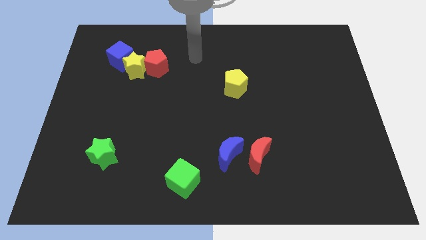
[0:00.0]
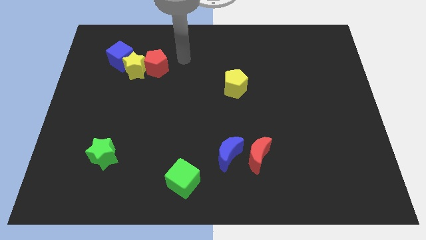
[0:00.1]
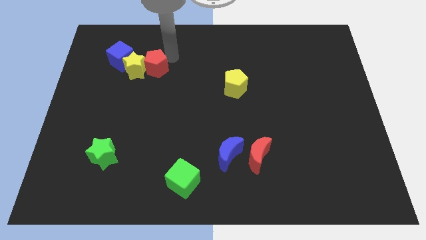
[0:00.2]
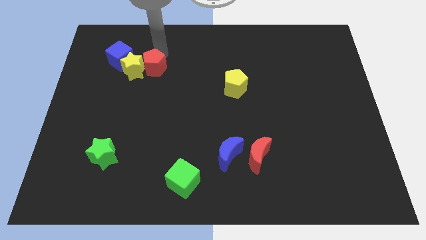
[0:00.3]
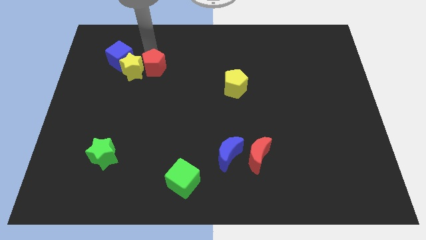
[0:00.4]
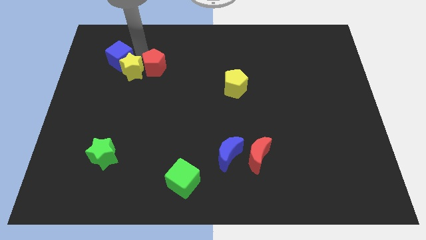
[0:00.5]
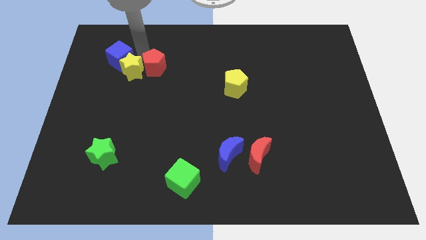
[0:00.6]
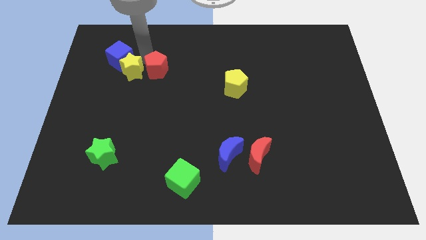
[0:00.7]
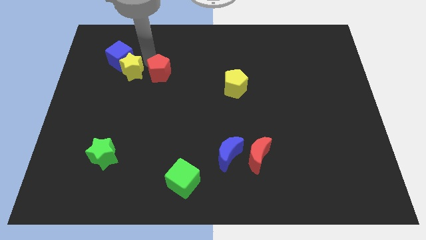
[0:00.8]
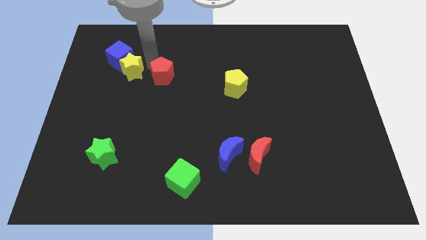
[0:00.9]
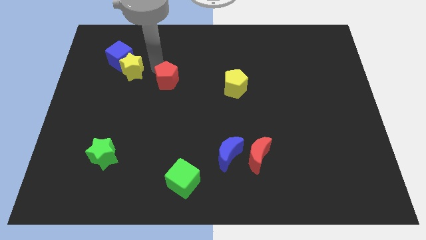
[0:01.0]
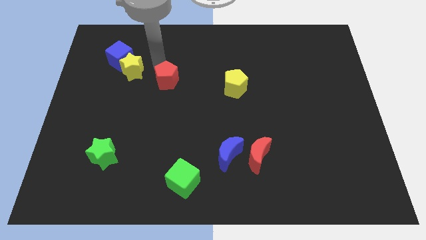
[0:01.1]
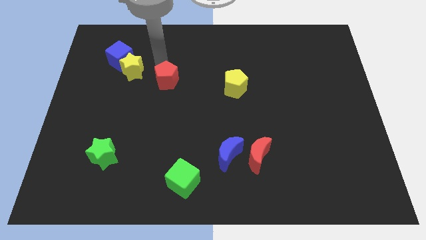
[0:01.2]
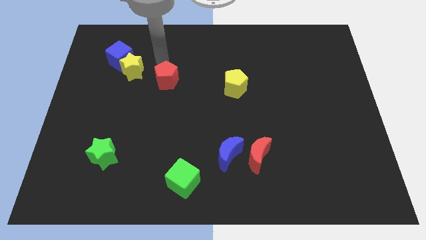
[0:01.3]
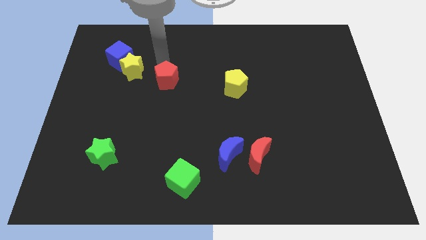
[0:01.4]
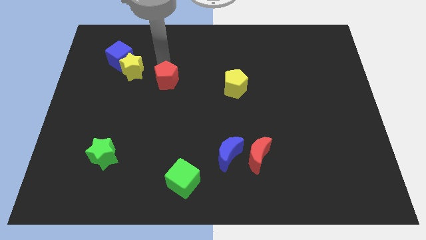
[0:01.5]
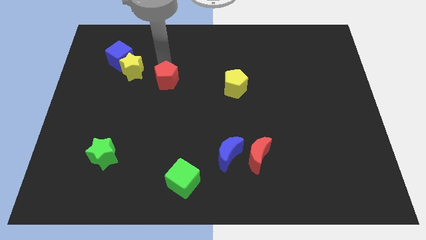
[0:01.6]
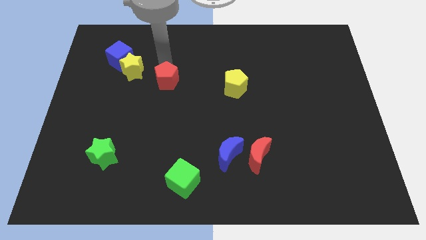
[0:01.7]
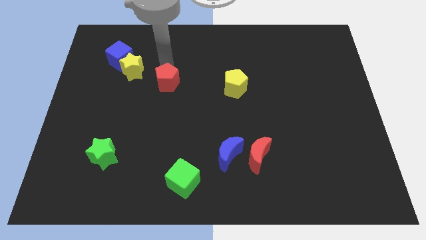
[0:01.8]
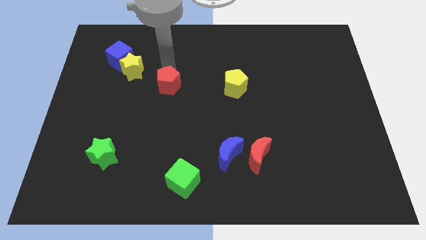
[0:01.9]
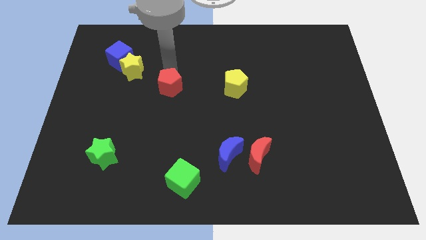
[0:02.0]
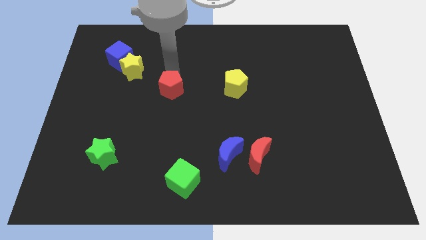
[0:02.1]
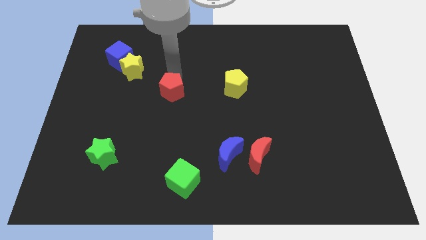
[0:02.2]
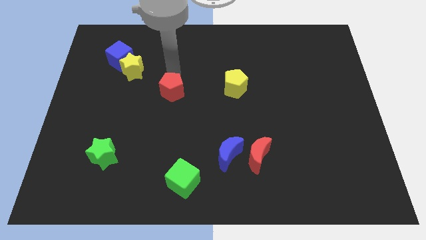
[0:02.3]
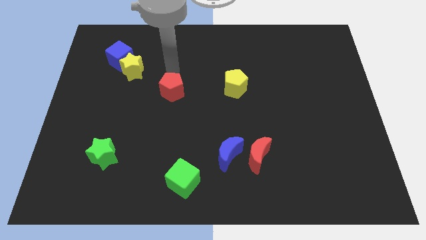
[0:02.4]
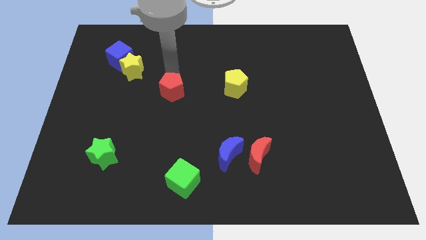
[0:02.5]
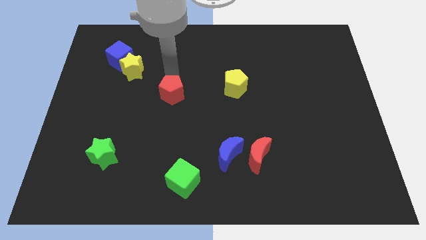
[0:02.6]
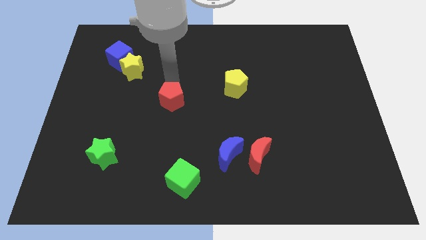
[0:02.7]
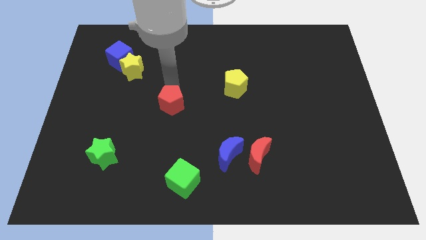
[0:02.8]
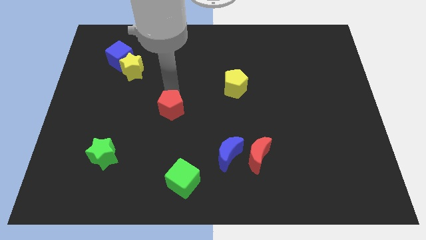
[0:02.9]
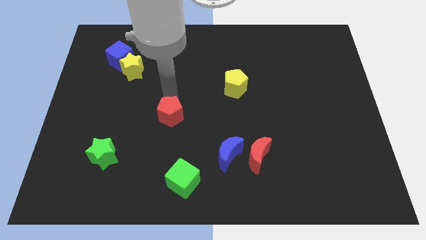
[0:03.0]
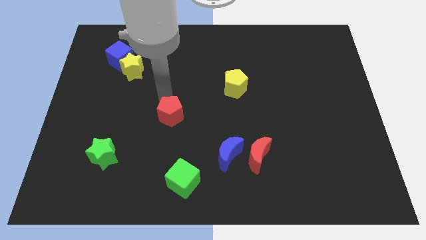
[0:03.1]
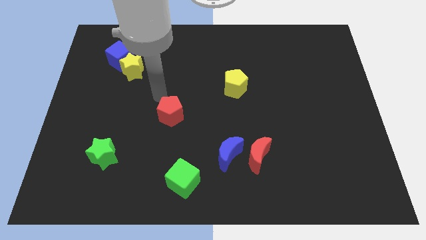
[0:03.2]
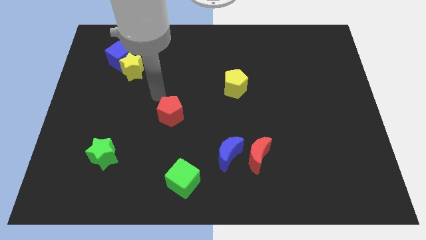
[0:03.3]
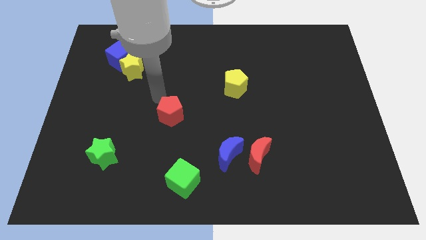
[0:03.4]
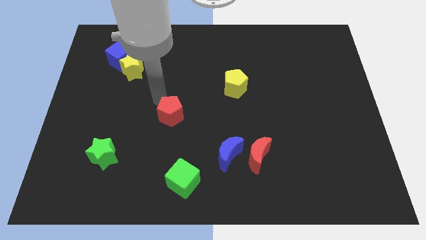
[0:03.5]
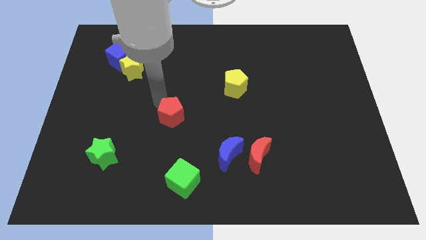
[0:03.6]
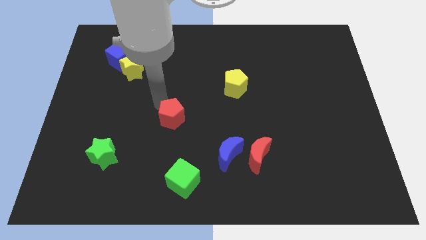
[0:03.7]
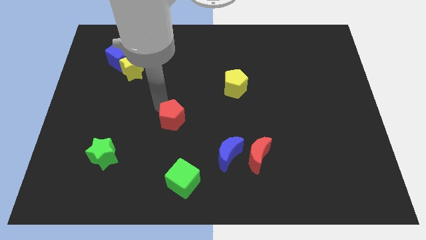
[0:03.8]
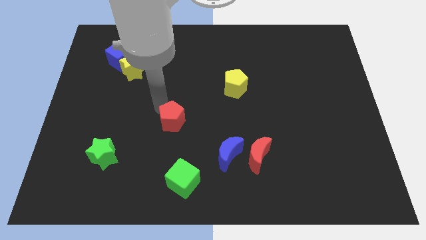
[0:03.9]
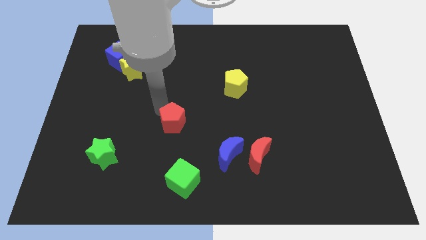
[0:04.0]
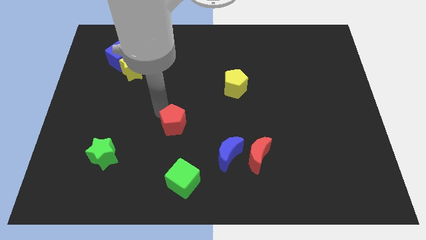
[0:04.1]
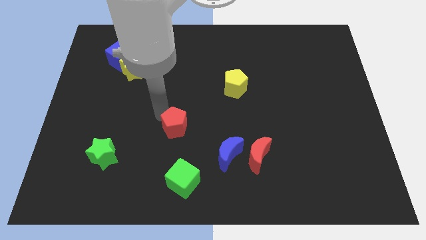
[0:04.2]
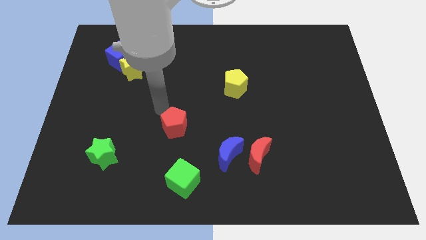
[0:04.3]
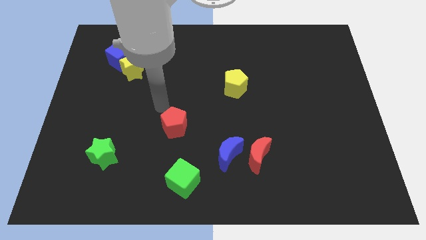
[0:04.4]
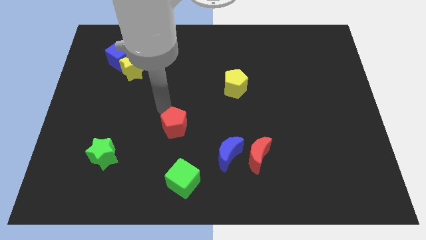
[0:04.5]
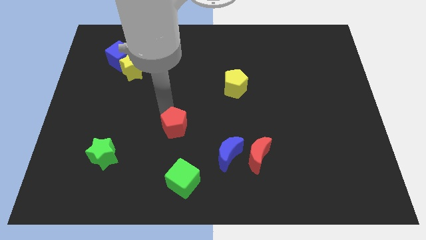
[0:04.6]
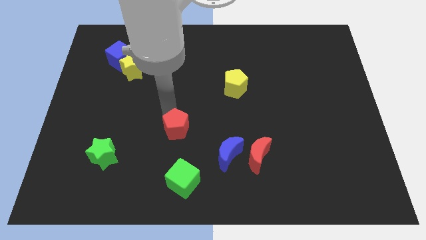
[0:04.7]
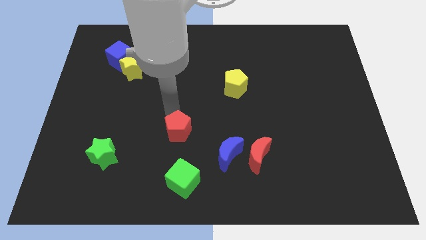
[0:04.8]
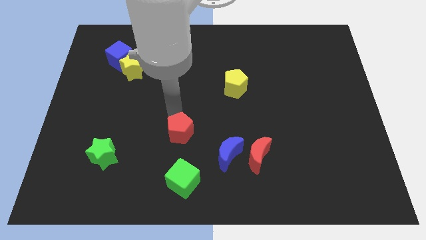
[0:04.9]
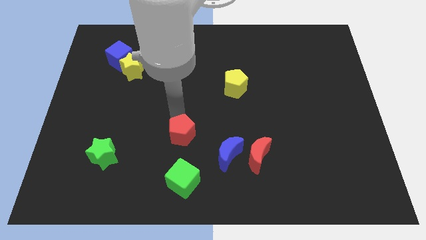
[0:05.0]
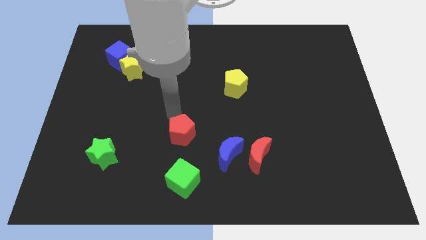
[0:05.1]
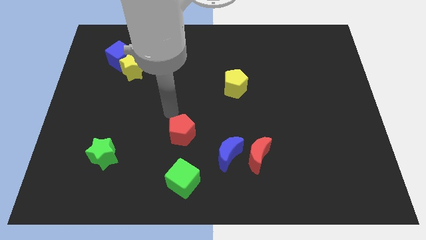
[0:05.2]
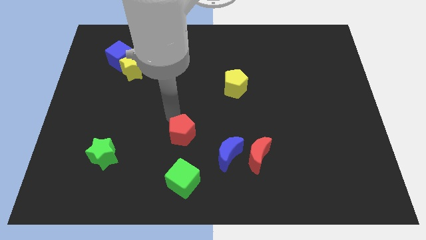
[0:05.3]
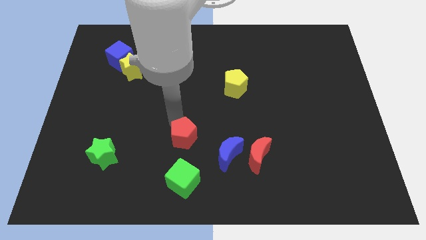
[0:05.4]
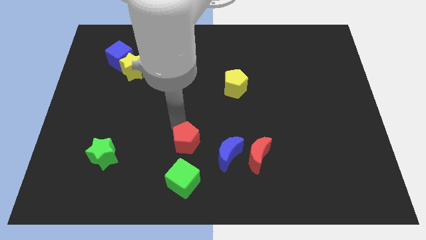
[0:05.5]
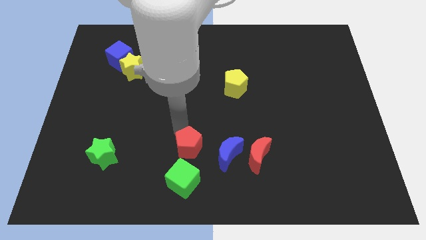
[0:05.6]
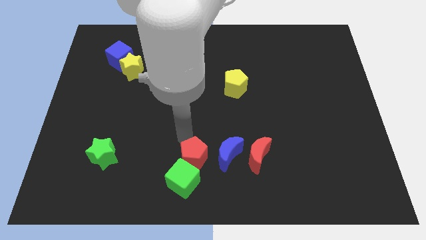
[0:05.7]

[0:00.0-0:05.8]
slide the red pentagon to the bottom left side of the blue moon

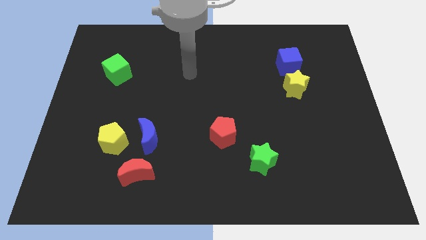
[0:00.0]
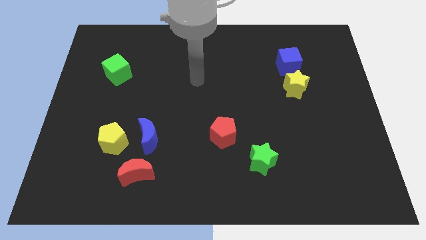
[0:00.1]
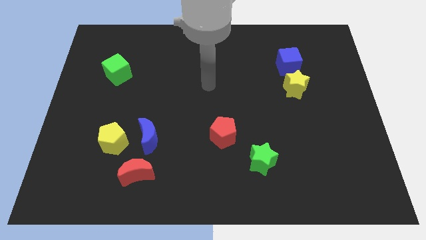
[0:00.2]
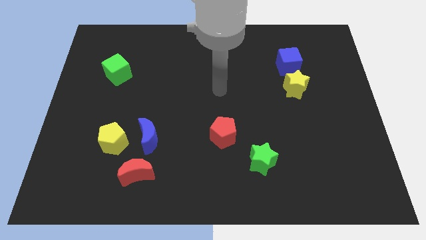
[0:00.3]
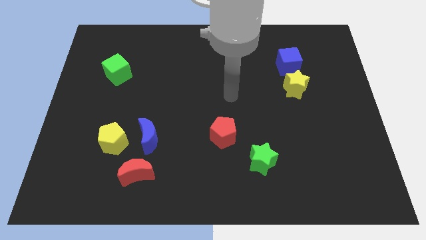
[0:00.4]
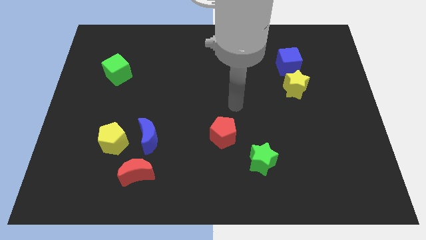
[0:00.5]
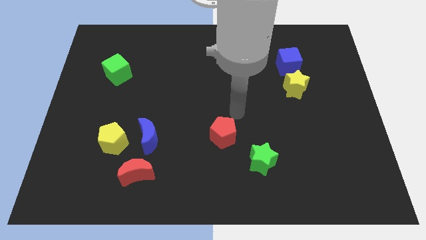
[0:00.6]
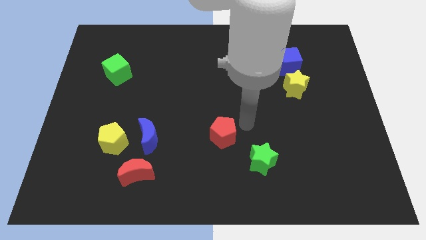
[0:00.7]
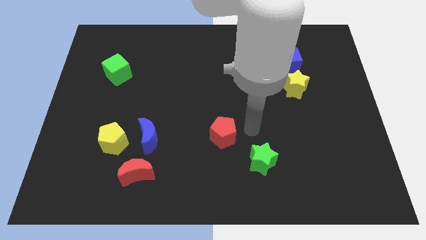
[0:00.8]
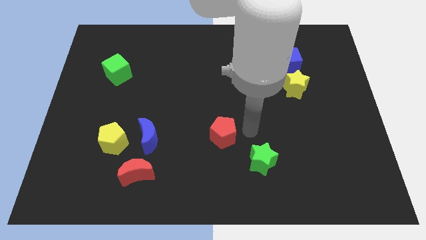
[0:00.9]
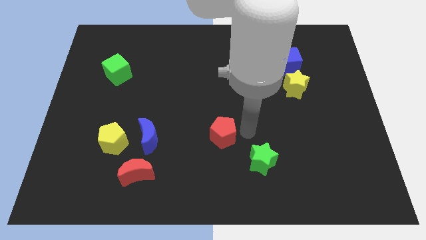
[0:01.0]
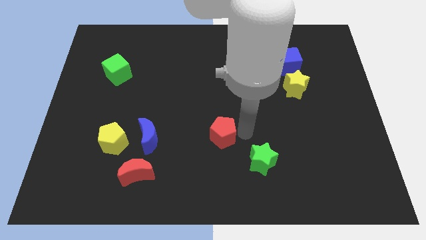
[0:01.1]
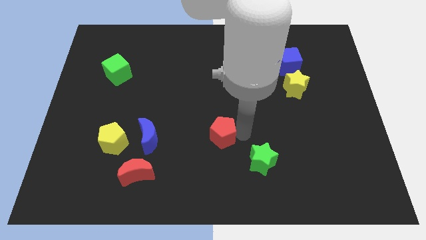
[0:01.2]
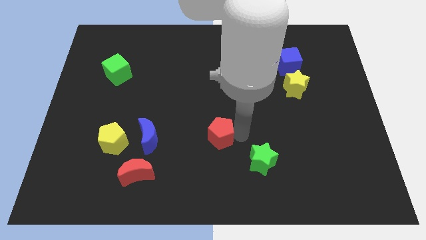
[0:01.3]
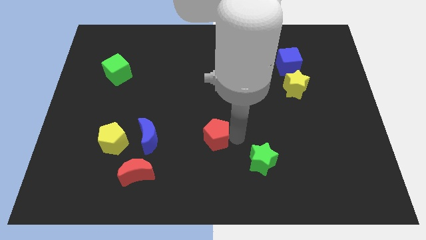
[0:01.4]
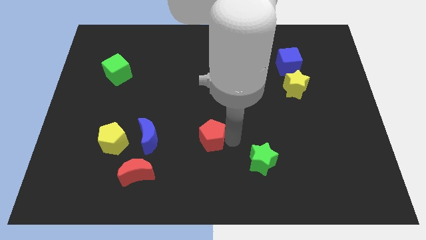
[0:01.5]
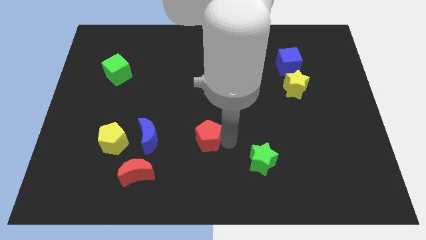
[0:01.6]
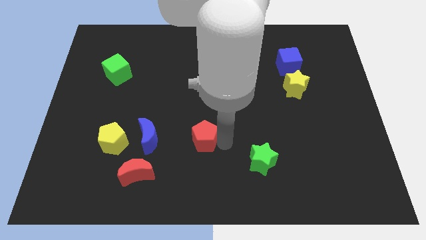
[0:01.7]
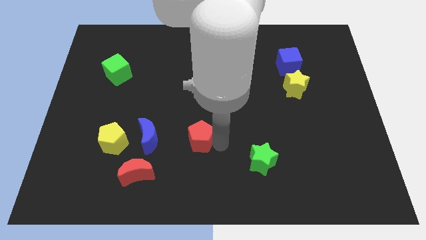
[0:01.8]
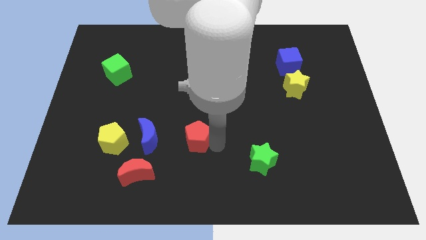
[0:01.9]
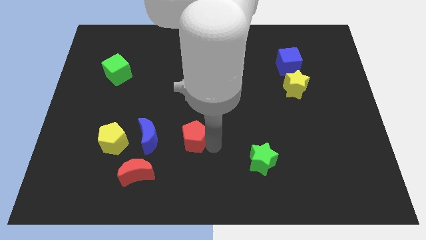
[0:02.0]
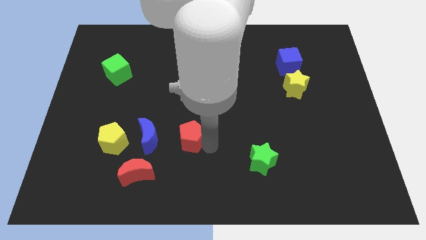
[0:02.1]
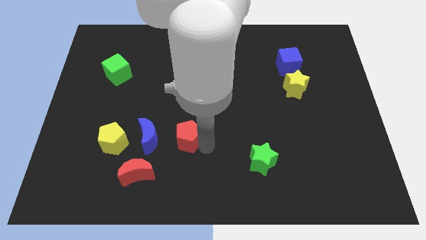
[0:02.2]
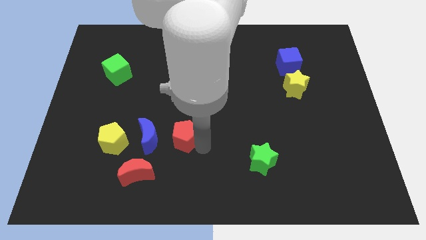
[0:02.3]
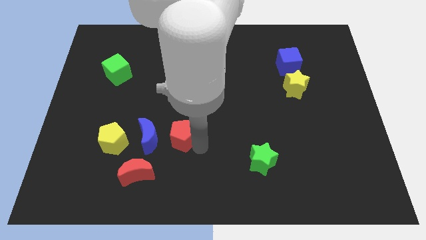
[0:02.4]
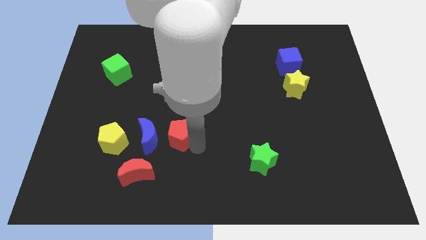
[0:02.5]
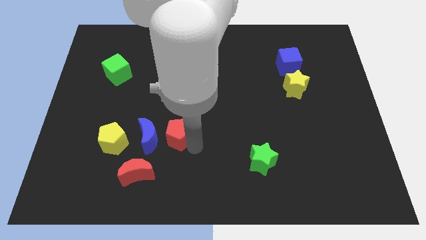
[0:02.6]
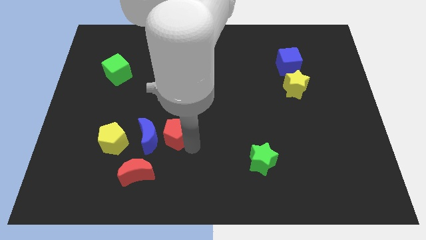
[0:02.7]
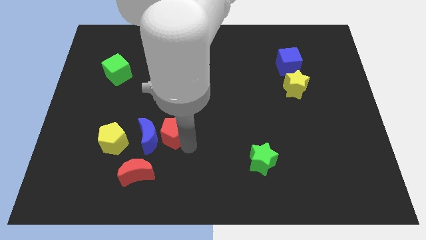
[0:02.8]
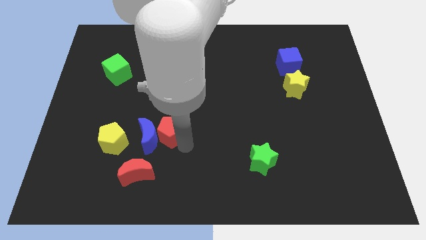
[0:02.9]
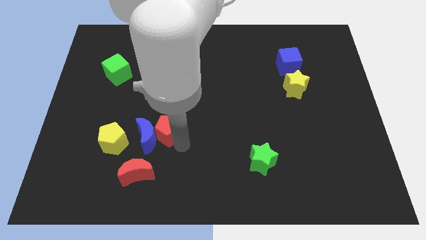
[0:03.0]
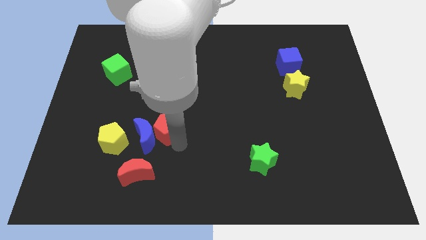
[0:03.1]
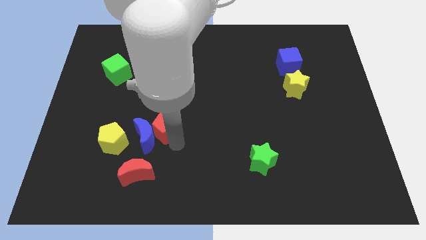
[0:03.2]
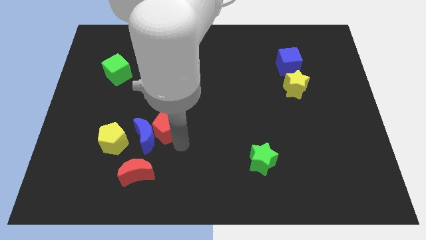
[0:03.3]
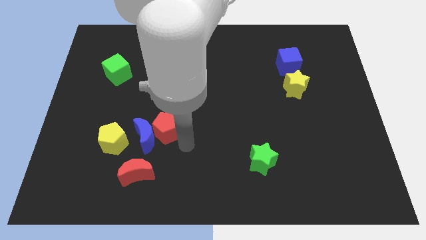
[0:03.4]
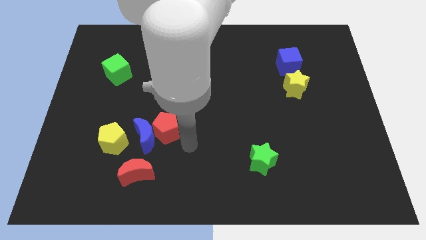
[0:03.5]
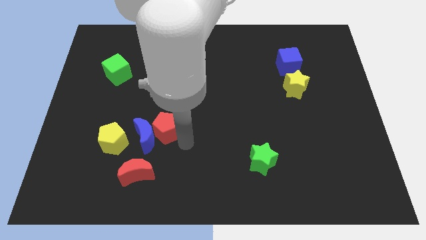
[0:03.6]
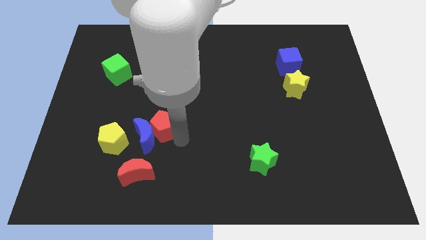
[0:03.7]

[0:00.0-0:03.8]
push the red pentagon to the top of the red moon
